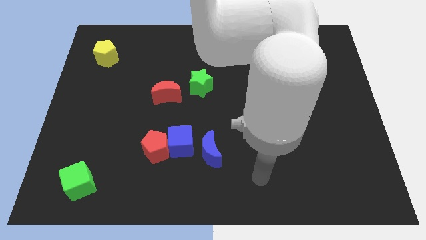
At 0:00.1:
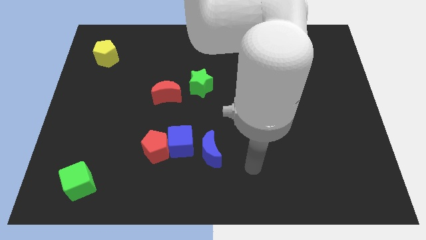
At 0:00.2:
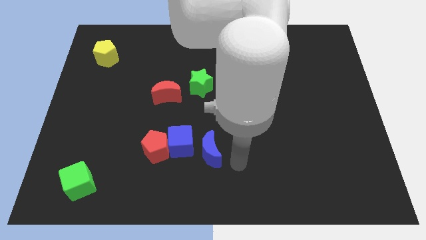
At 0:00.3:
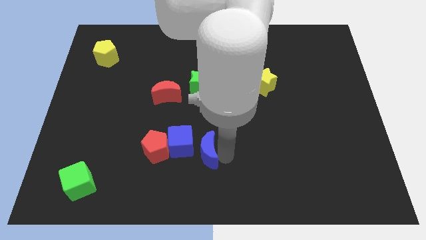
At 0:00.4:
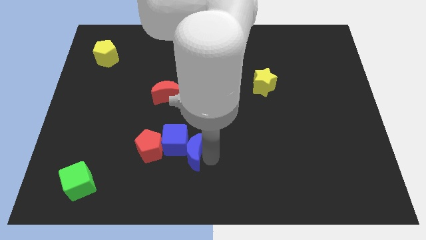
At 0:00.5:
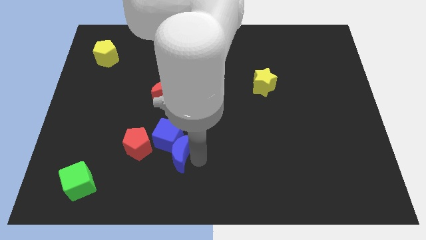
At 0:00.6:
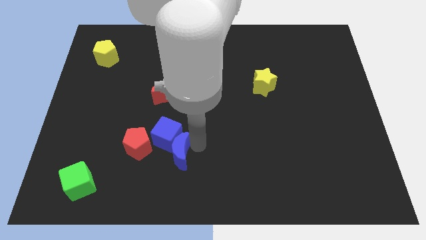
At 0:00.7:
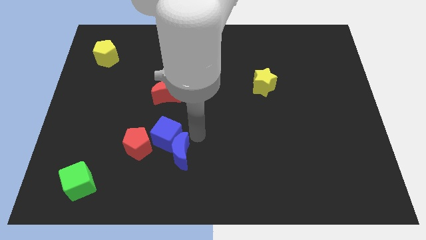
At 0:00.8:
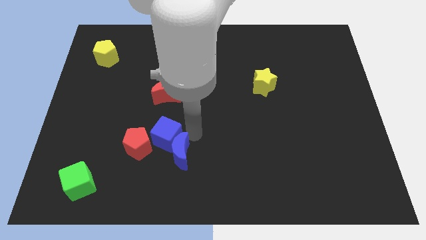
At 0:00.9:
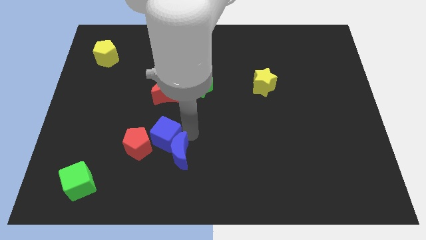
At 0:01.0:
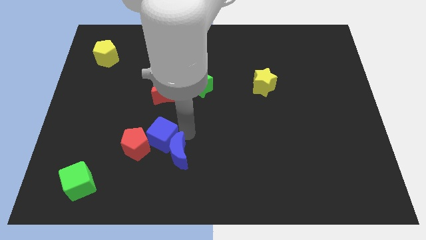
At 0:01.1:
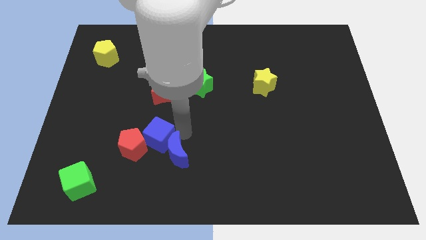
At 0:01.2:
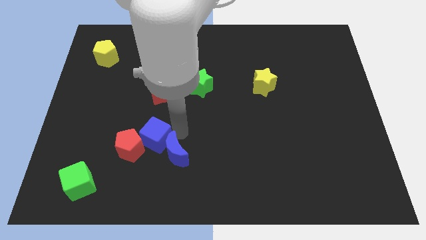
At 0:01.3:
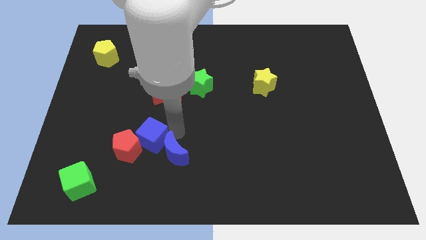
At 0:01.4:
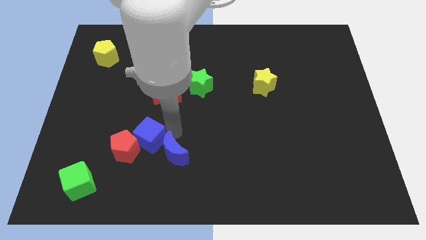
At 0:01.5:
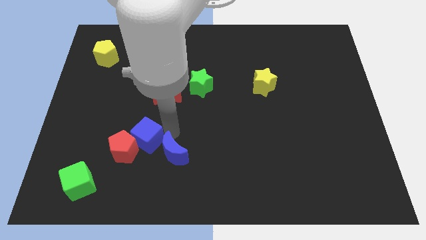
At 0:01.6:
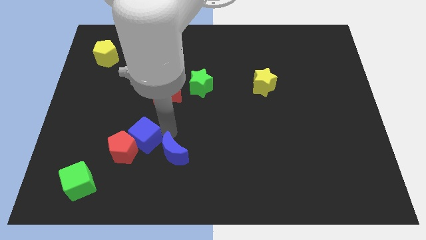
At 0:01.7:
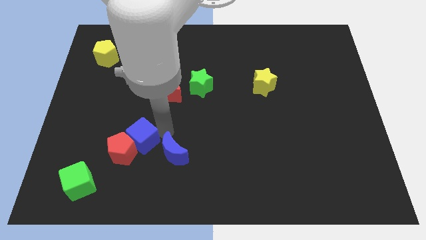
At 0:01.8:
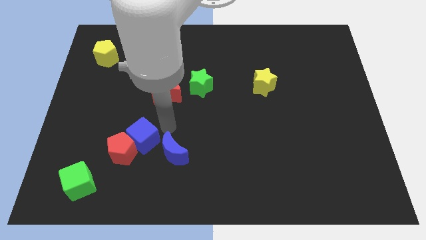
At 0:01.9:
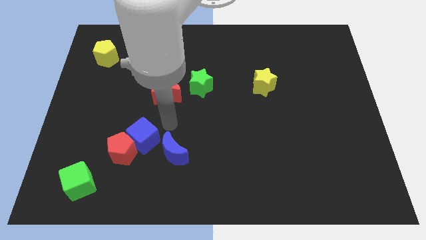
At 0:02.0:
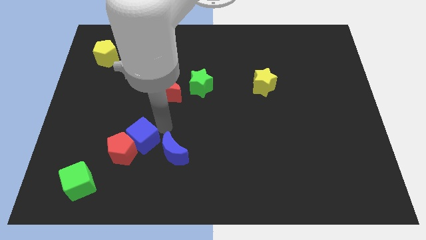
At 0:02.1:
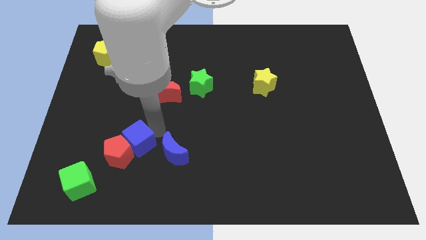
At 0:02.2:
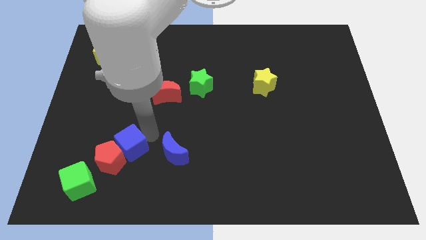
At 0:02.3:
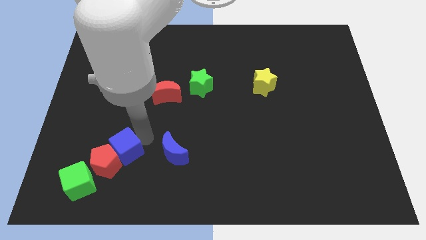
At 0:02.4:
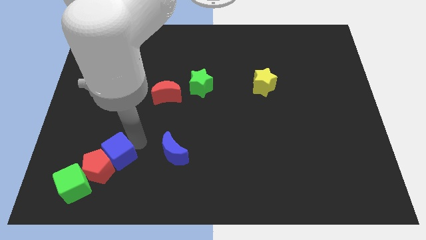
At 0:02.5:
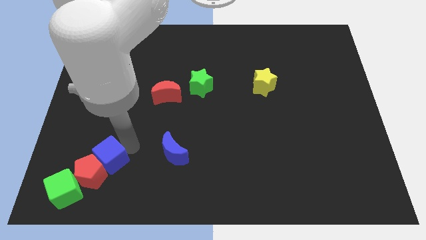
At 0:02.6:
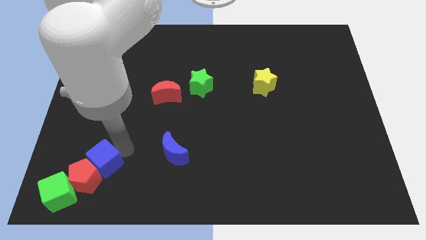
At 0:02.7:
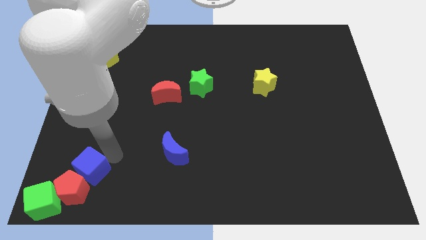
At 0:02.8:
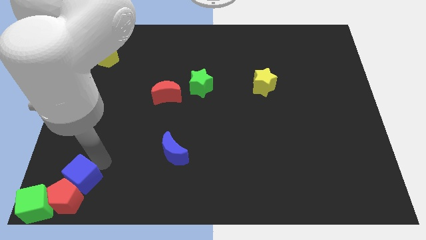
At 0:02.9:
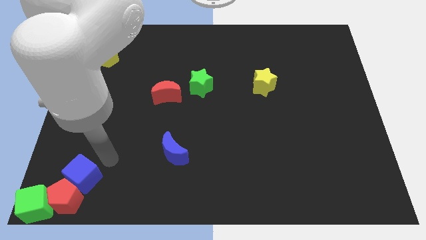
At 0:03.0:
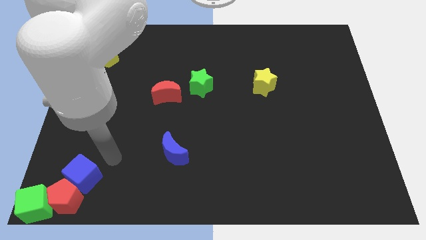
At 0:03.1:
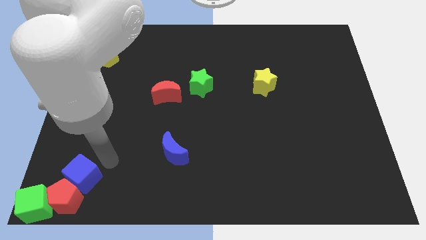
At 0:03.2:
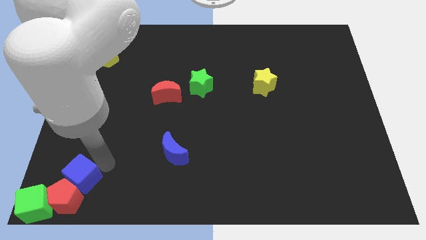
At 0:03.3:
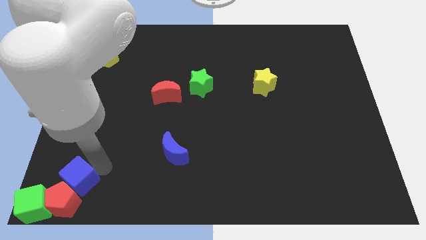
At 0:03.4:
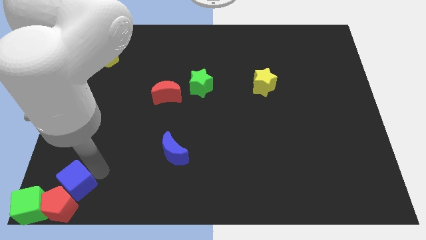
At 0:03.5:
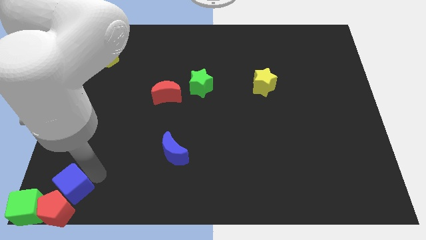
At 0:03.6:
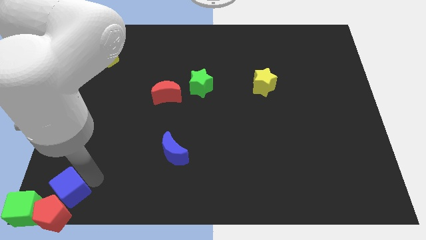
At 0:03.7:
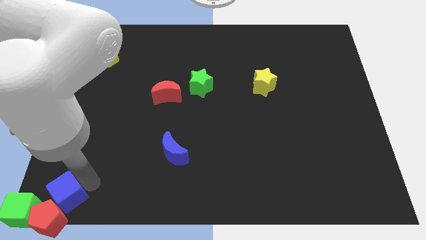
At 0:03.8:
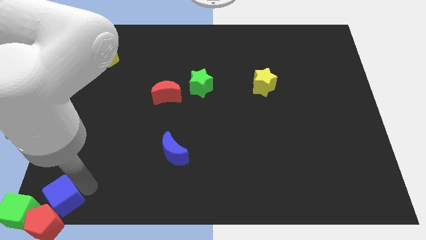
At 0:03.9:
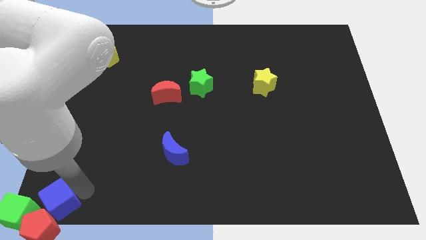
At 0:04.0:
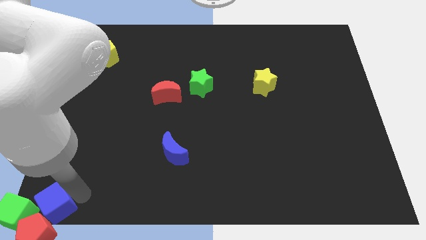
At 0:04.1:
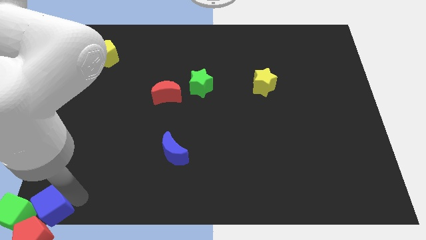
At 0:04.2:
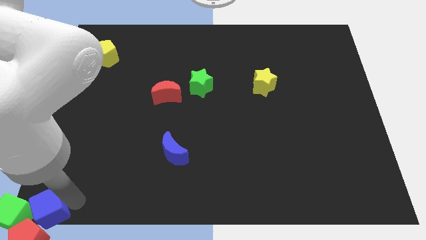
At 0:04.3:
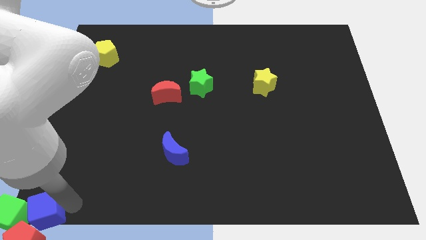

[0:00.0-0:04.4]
slide the blue cube towards the green cube

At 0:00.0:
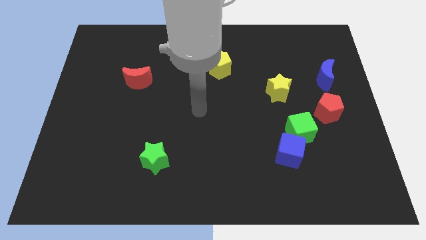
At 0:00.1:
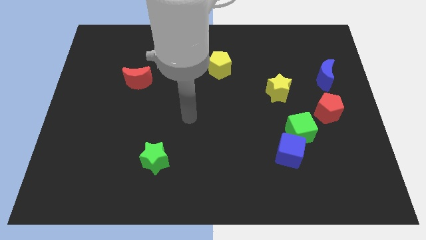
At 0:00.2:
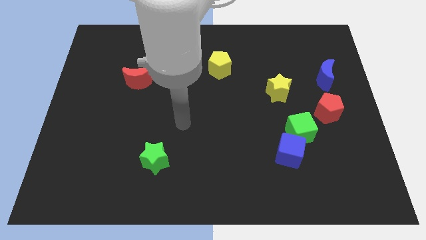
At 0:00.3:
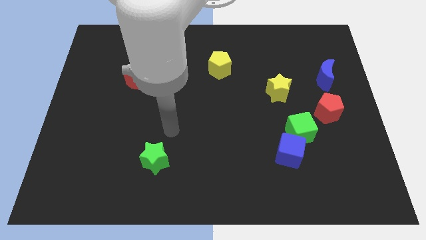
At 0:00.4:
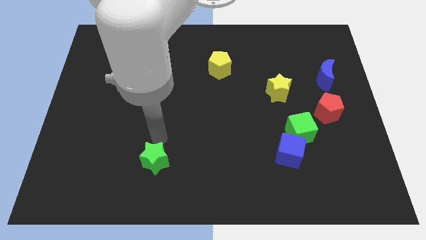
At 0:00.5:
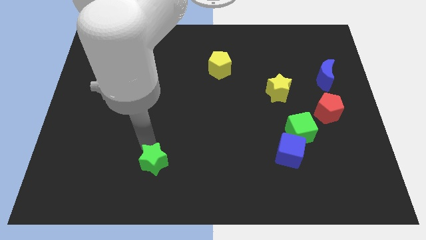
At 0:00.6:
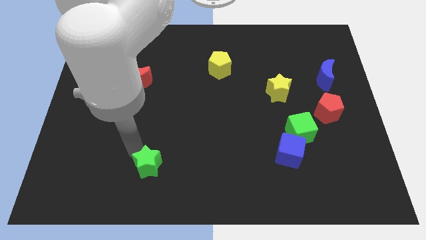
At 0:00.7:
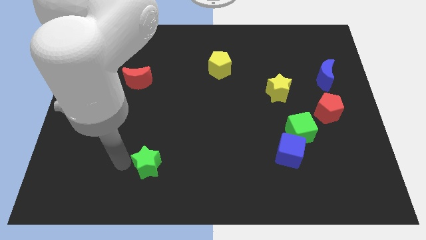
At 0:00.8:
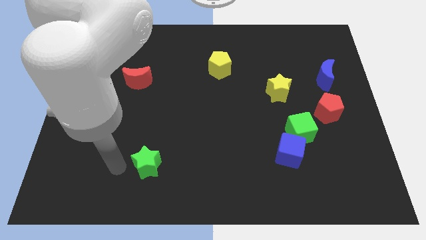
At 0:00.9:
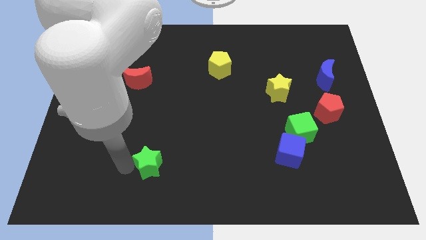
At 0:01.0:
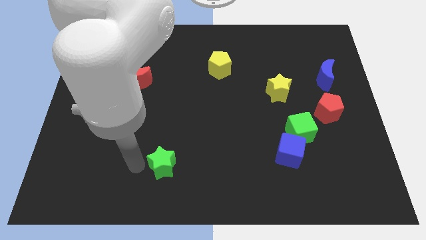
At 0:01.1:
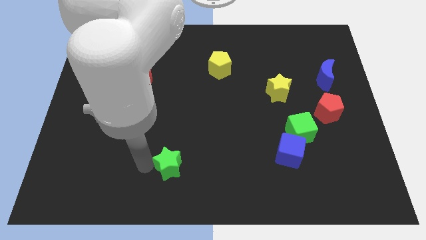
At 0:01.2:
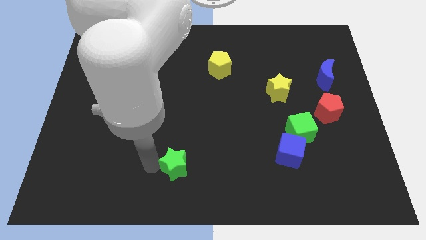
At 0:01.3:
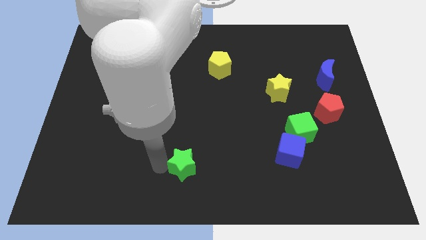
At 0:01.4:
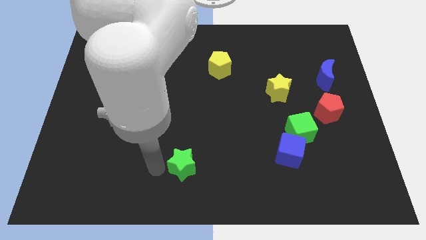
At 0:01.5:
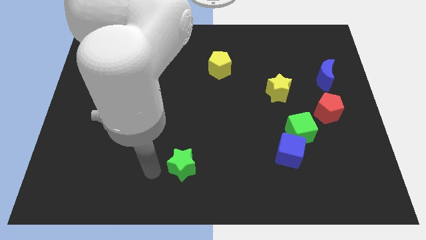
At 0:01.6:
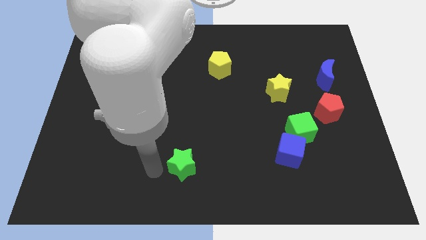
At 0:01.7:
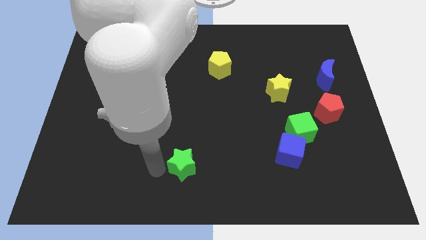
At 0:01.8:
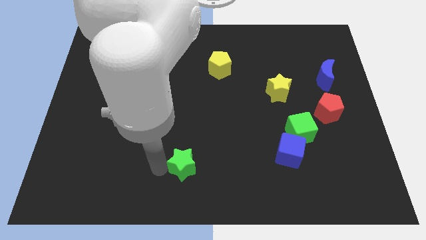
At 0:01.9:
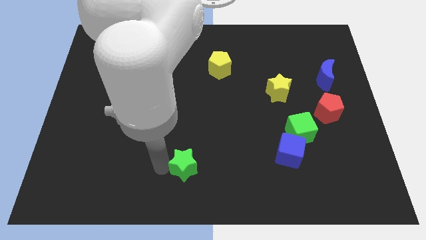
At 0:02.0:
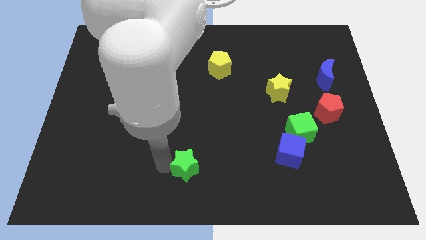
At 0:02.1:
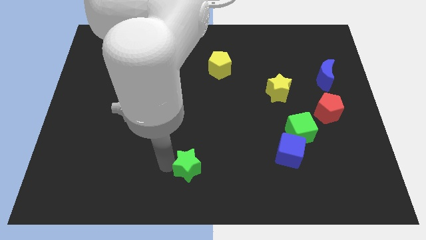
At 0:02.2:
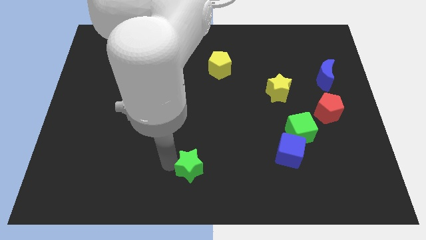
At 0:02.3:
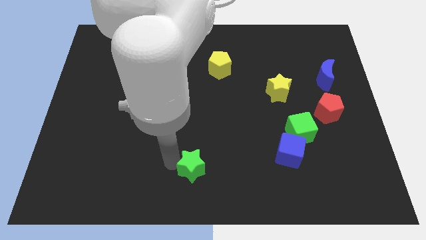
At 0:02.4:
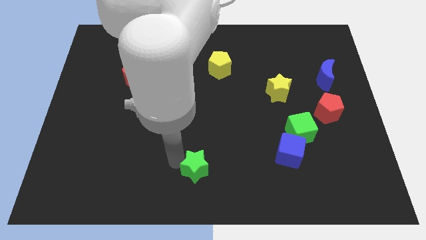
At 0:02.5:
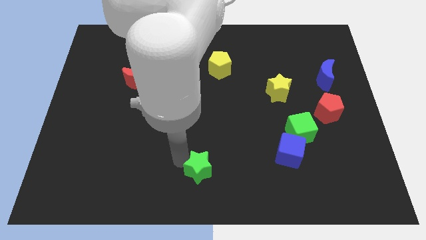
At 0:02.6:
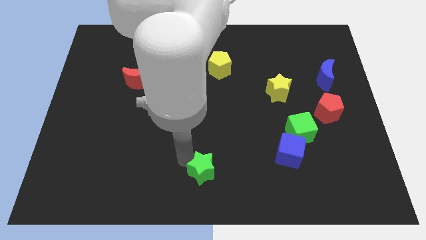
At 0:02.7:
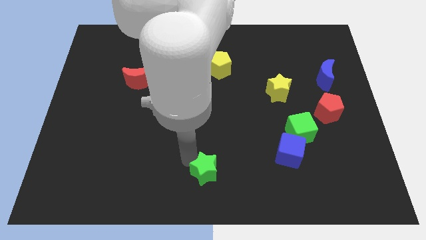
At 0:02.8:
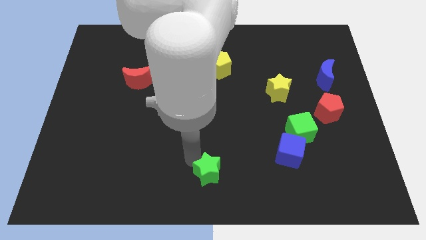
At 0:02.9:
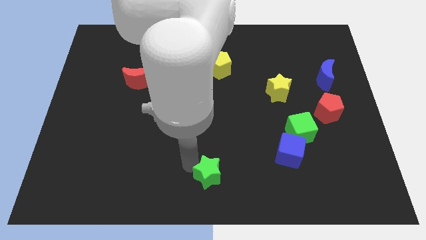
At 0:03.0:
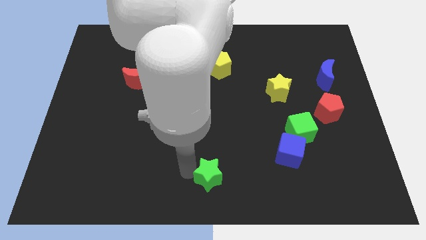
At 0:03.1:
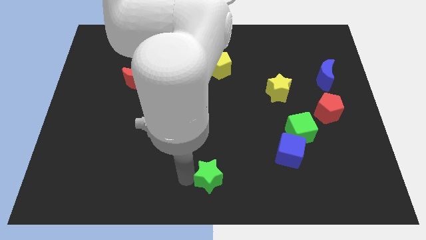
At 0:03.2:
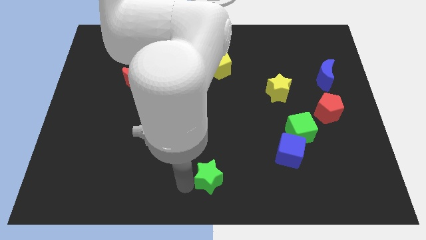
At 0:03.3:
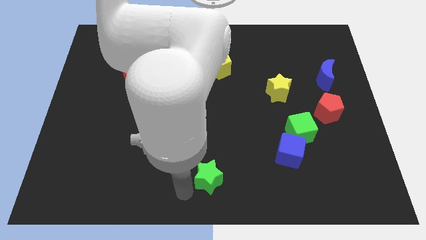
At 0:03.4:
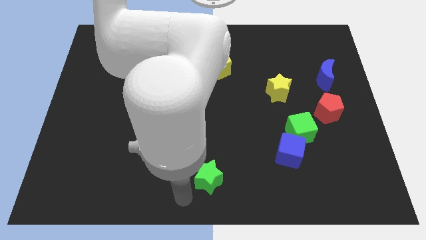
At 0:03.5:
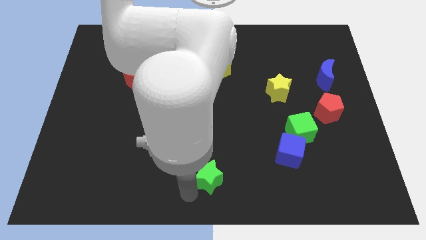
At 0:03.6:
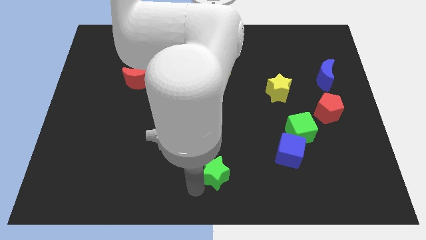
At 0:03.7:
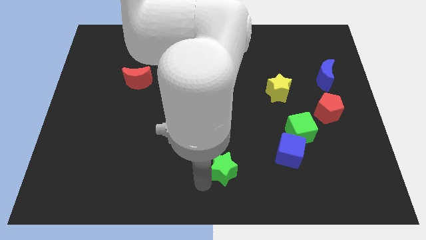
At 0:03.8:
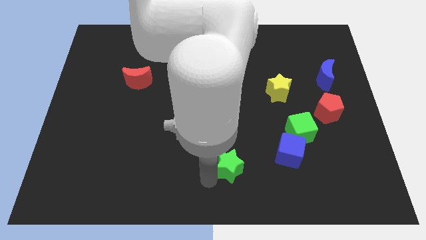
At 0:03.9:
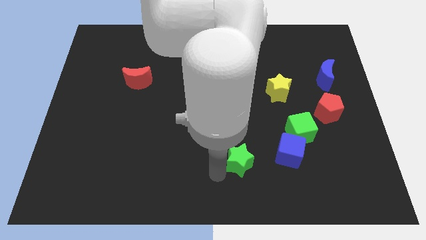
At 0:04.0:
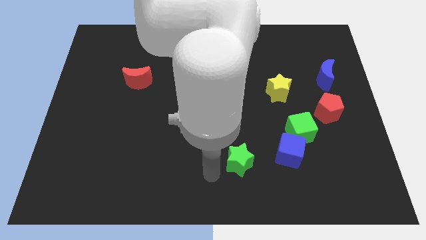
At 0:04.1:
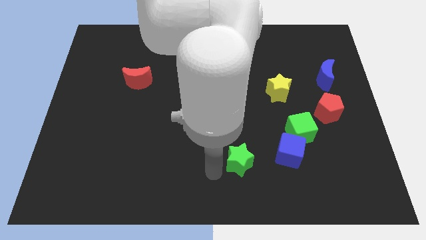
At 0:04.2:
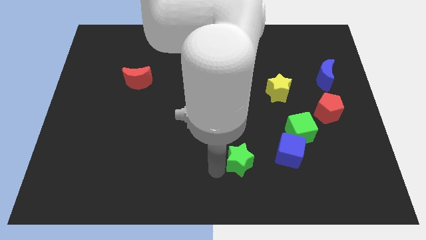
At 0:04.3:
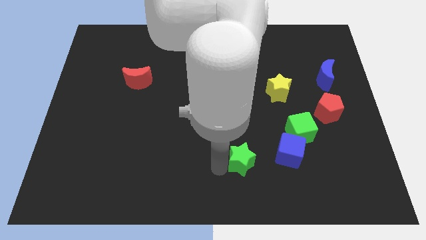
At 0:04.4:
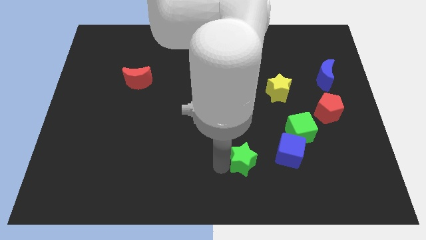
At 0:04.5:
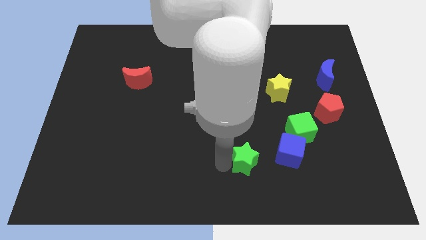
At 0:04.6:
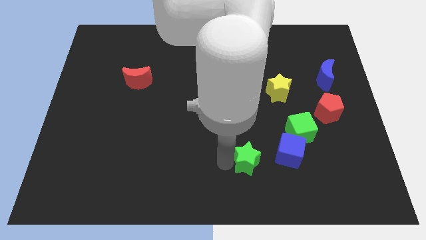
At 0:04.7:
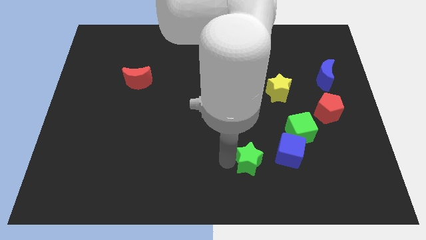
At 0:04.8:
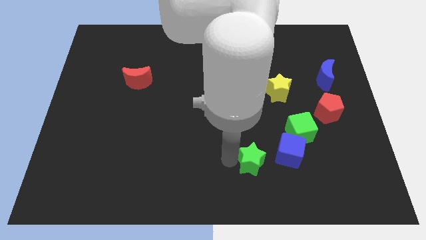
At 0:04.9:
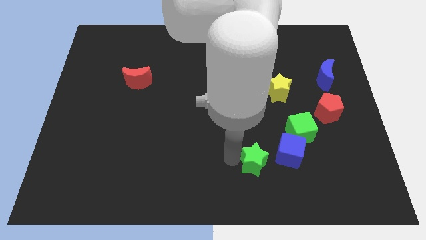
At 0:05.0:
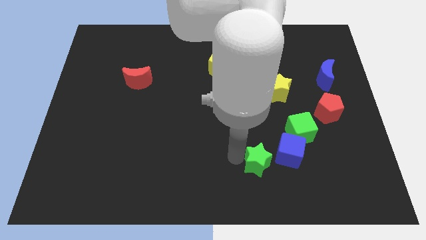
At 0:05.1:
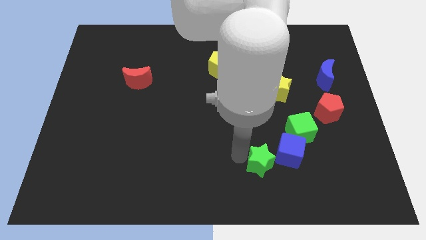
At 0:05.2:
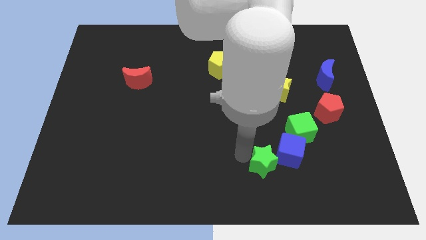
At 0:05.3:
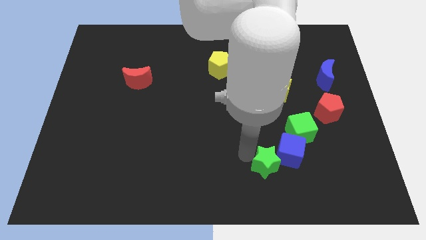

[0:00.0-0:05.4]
push the green star towards the blue cube
